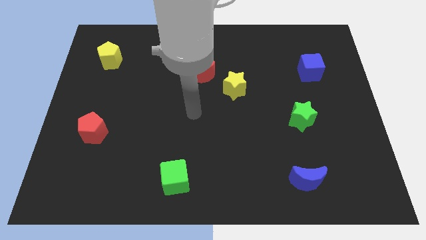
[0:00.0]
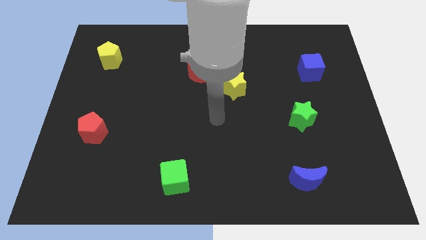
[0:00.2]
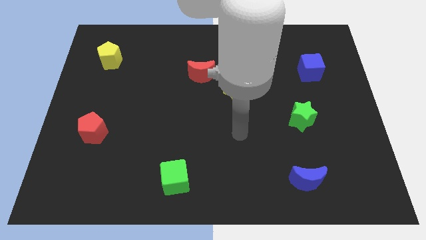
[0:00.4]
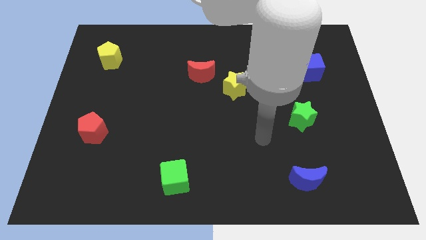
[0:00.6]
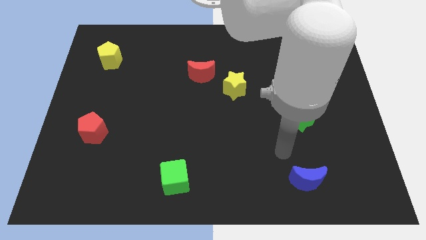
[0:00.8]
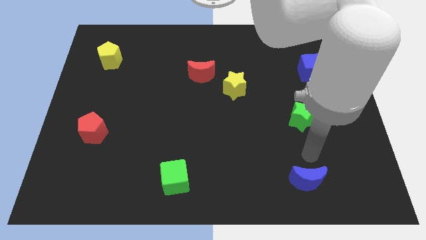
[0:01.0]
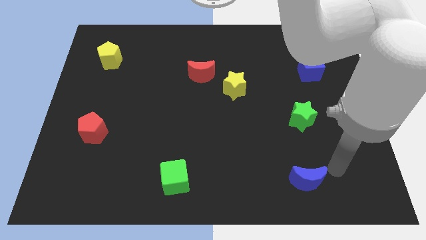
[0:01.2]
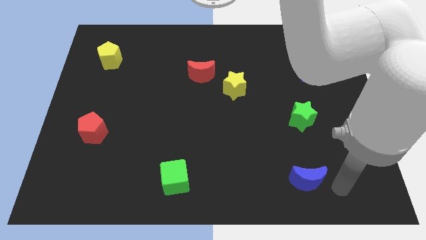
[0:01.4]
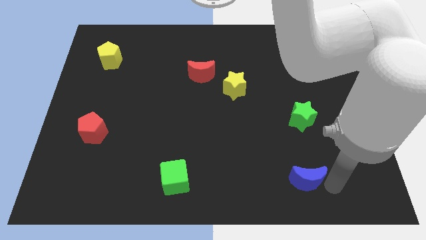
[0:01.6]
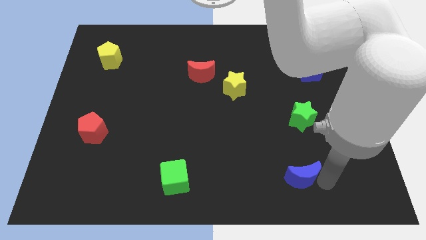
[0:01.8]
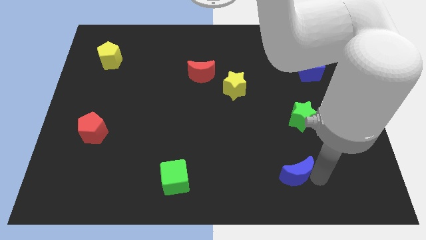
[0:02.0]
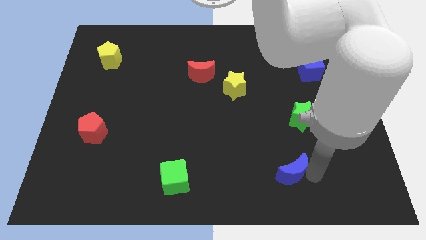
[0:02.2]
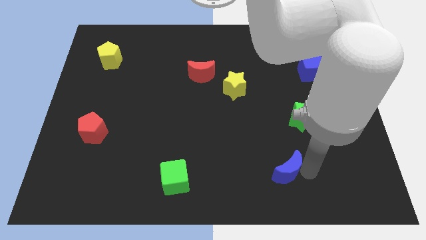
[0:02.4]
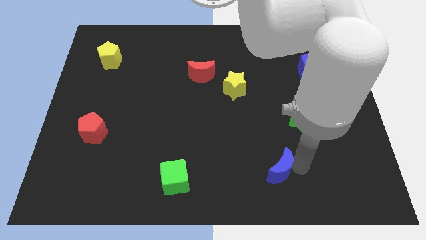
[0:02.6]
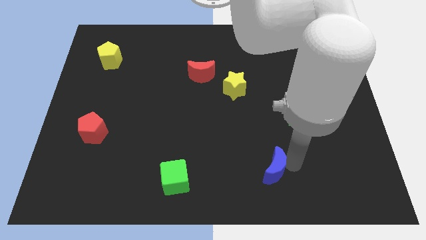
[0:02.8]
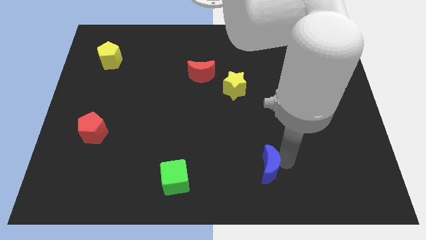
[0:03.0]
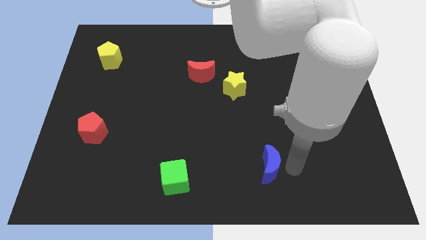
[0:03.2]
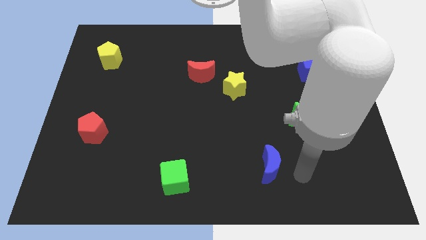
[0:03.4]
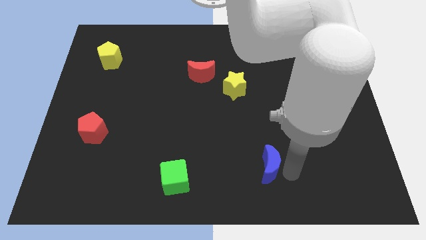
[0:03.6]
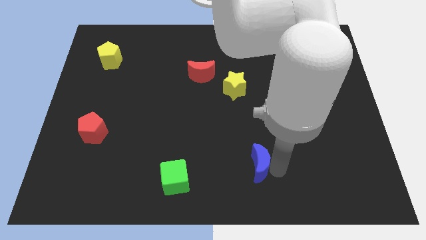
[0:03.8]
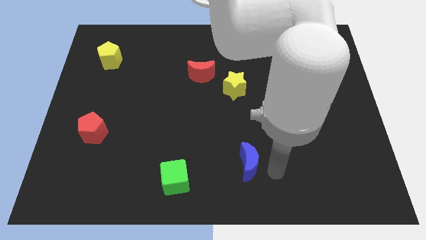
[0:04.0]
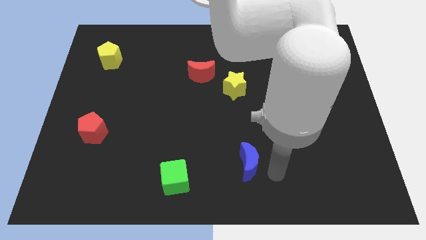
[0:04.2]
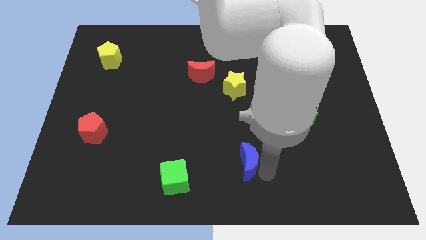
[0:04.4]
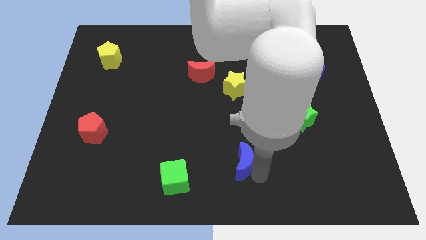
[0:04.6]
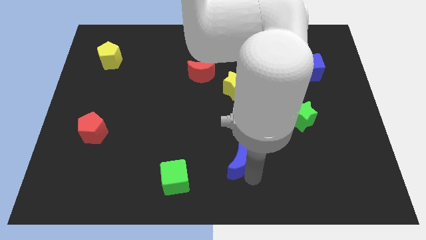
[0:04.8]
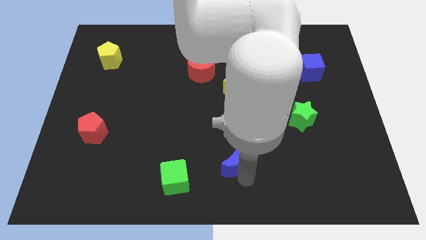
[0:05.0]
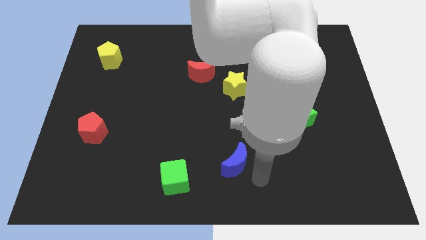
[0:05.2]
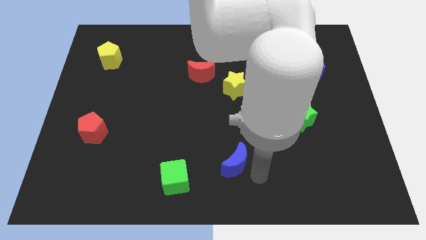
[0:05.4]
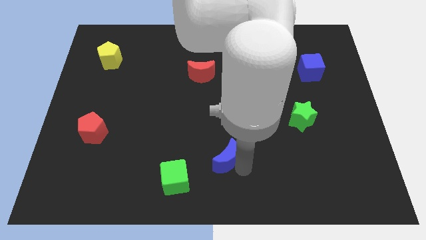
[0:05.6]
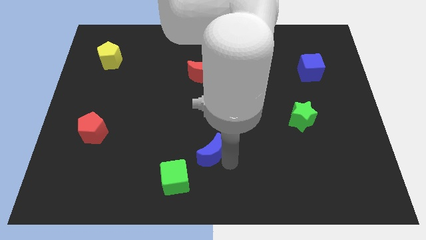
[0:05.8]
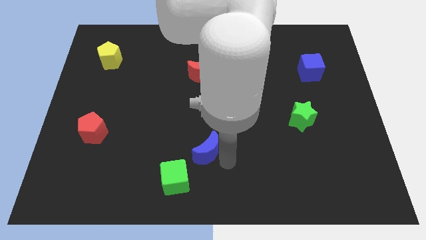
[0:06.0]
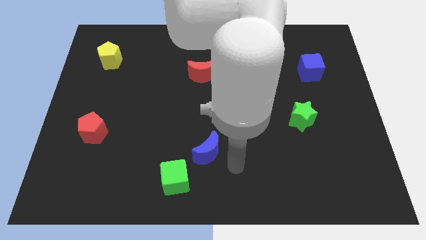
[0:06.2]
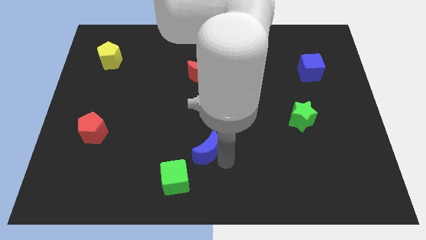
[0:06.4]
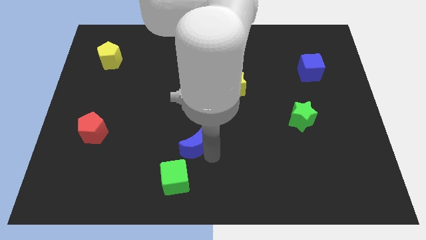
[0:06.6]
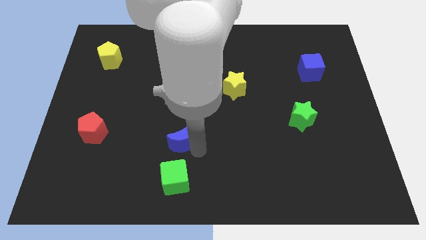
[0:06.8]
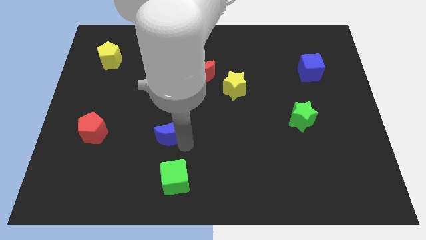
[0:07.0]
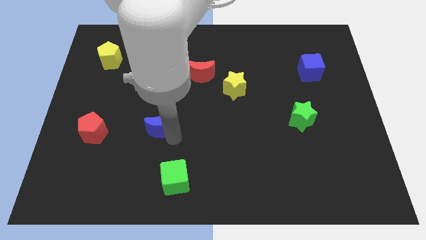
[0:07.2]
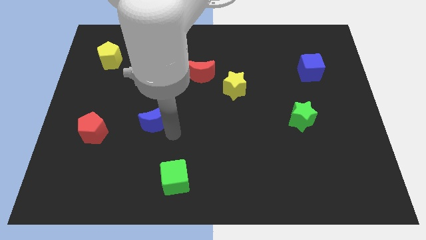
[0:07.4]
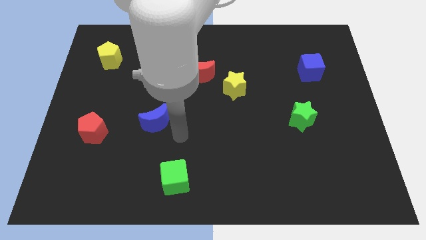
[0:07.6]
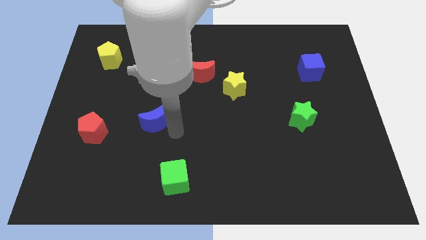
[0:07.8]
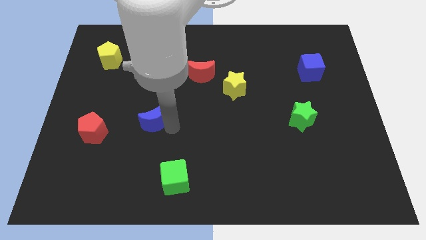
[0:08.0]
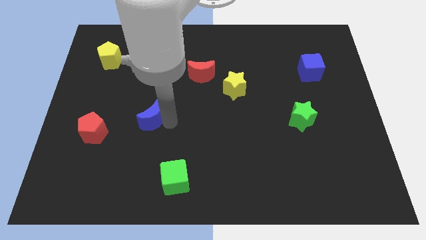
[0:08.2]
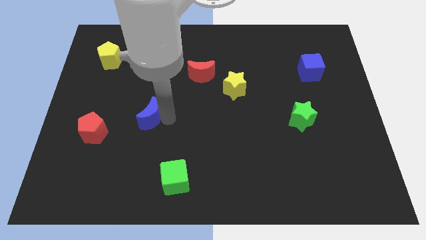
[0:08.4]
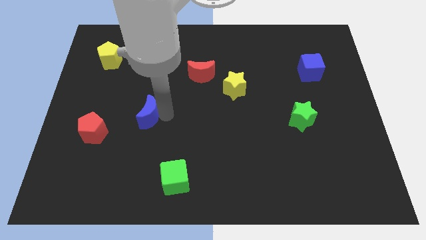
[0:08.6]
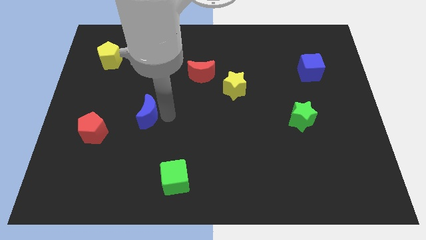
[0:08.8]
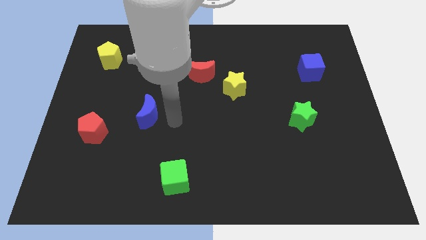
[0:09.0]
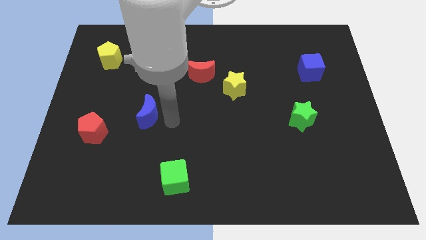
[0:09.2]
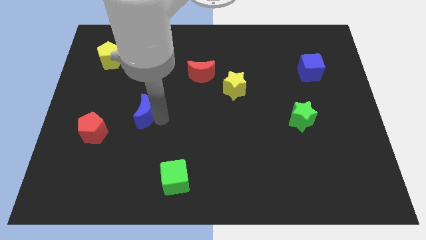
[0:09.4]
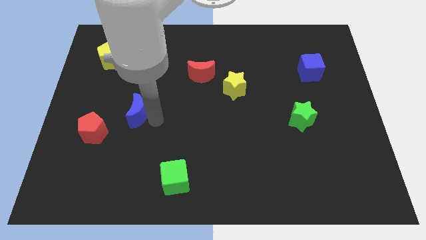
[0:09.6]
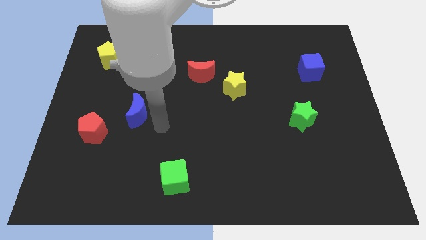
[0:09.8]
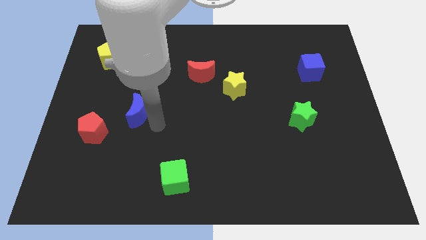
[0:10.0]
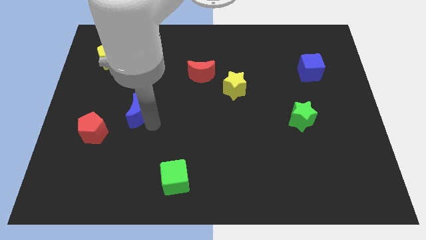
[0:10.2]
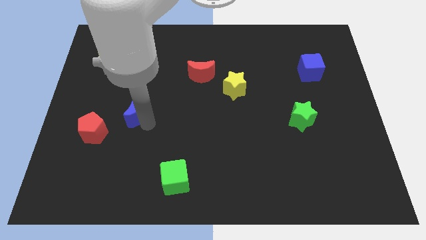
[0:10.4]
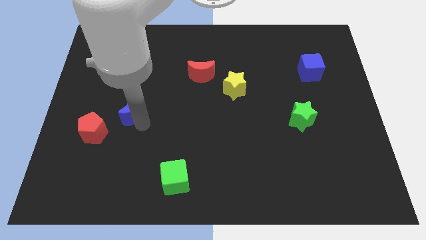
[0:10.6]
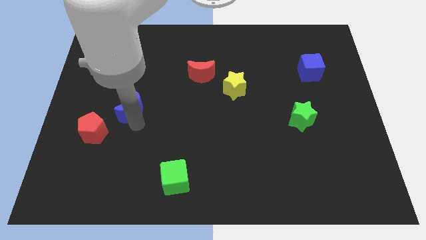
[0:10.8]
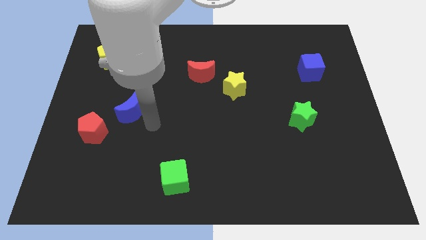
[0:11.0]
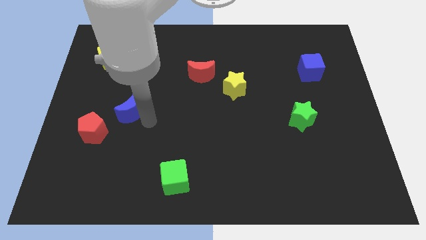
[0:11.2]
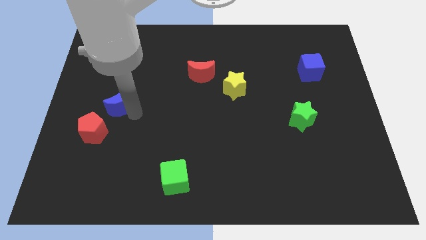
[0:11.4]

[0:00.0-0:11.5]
put the blue moon to the top side of the red pentagon

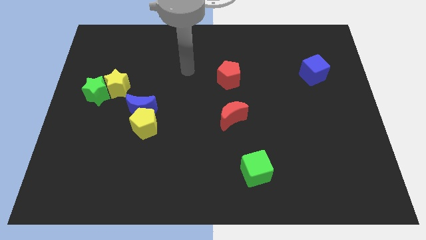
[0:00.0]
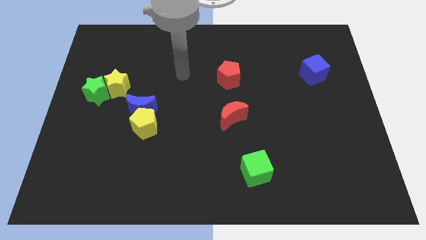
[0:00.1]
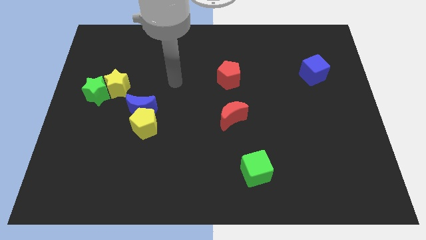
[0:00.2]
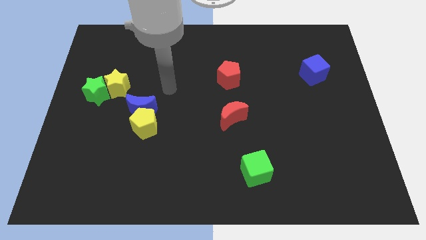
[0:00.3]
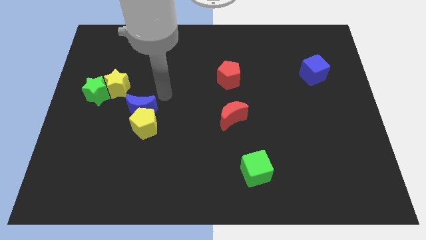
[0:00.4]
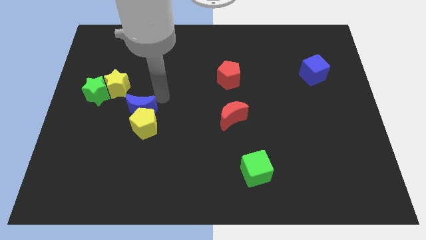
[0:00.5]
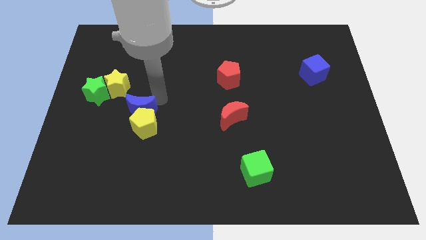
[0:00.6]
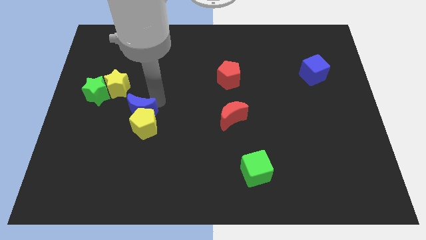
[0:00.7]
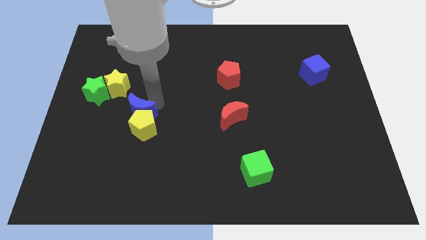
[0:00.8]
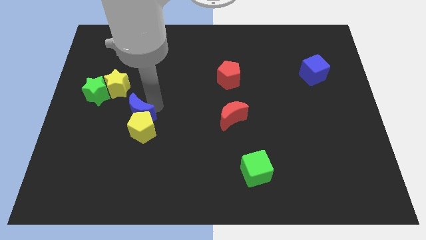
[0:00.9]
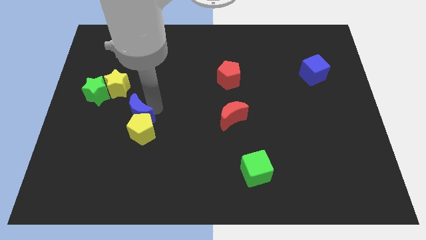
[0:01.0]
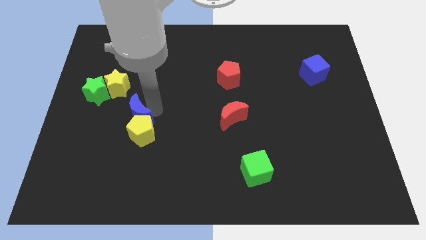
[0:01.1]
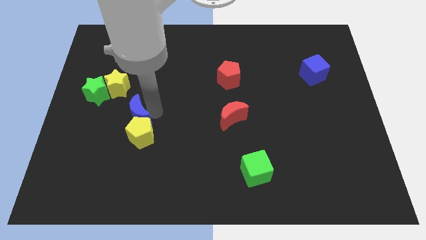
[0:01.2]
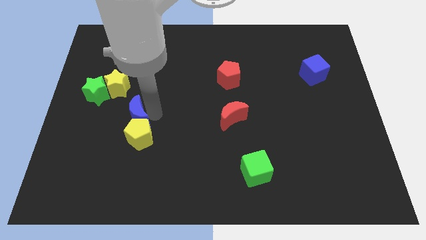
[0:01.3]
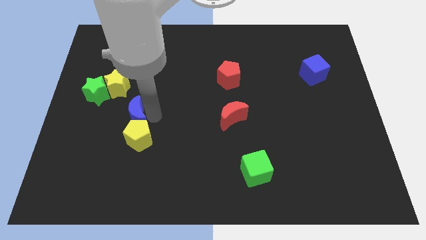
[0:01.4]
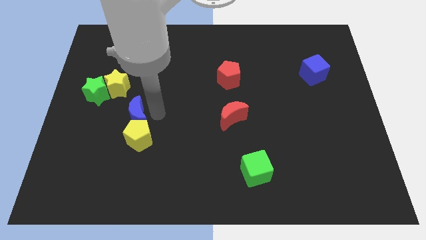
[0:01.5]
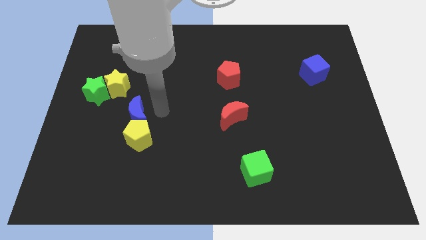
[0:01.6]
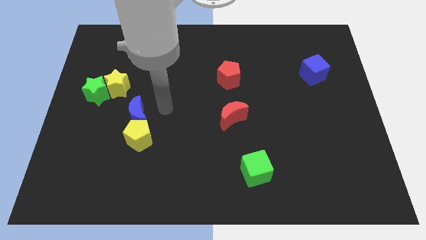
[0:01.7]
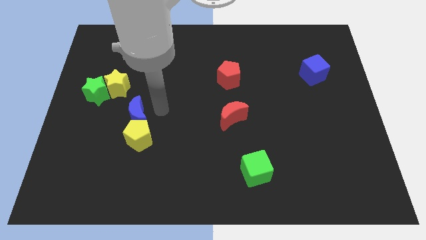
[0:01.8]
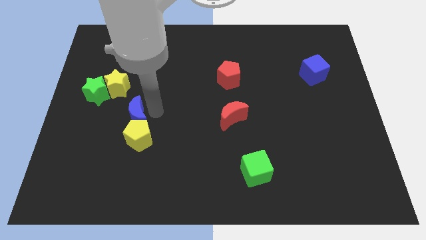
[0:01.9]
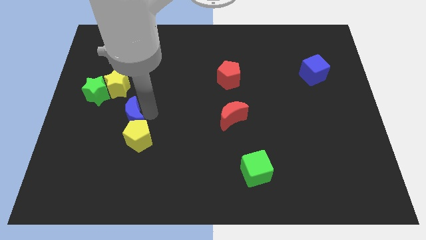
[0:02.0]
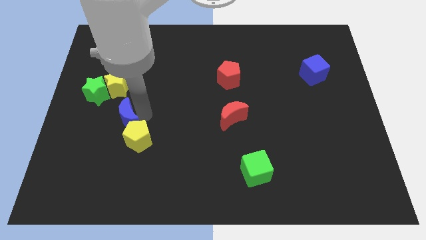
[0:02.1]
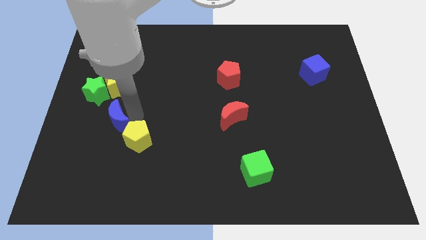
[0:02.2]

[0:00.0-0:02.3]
move the blue moon just left of the yellow pentagon
